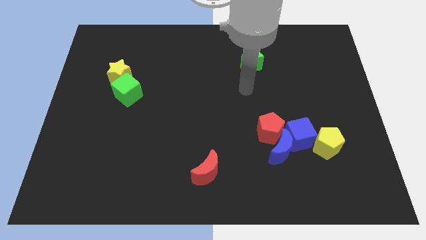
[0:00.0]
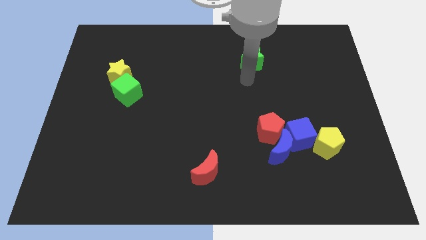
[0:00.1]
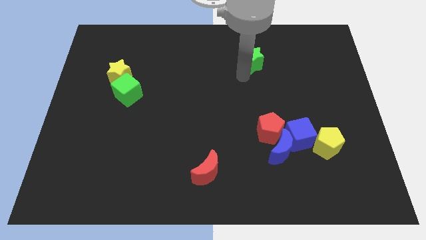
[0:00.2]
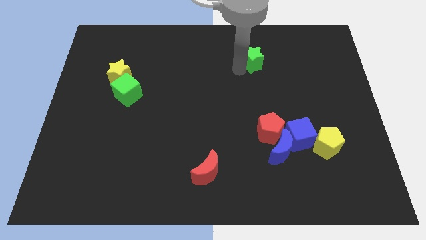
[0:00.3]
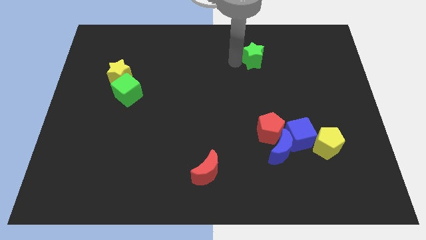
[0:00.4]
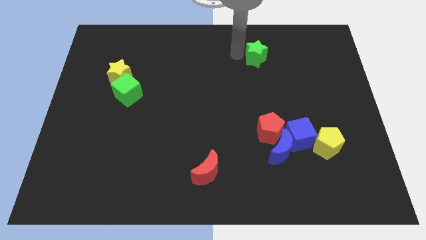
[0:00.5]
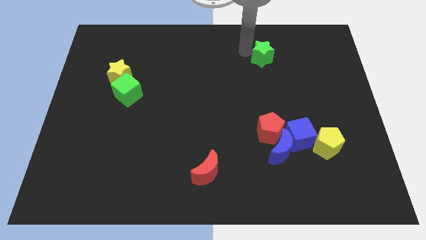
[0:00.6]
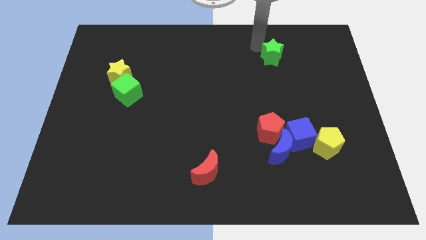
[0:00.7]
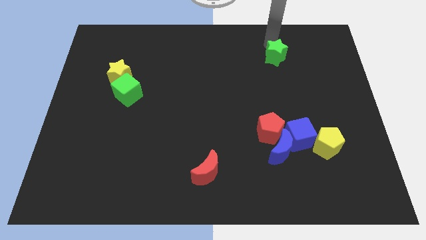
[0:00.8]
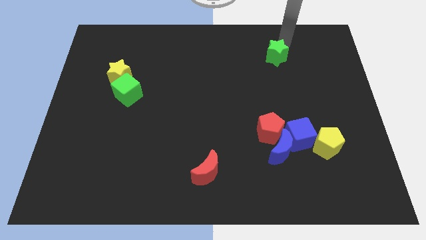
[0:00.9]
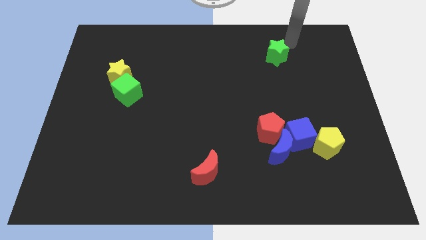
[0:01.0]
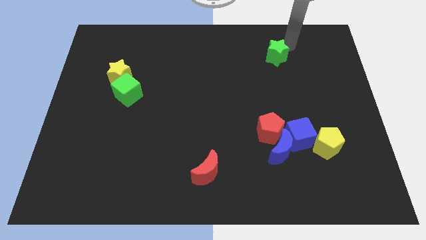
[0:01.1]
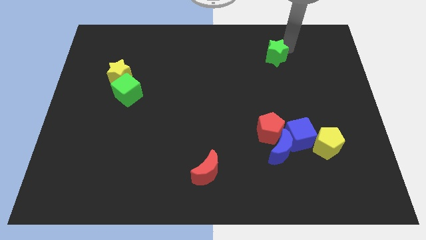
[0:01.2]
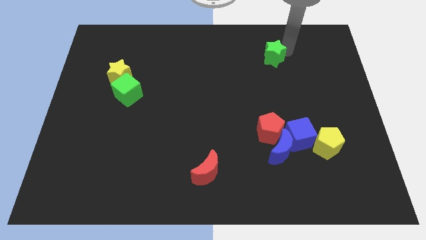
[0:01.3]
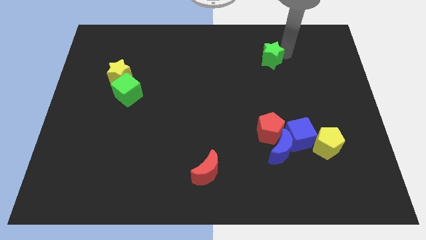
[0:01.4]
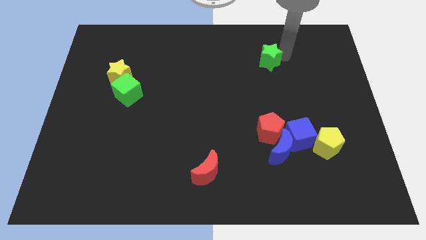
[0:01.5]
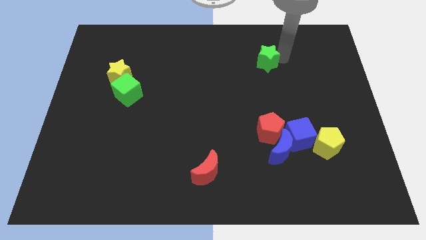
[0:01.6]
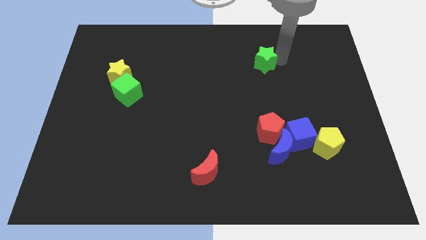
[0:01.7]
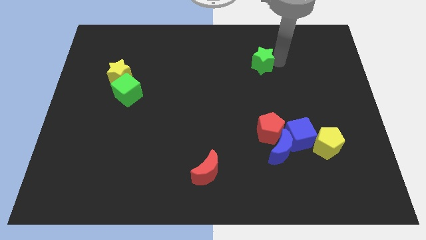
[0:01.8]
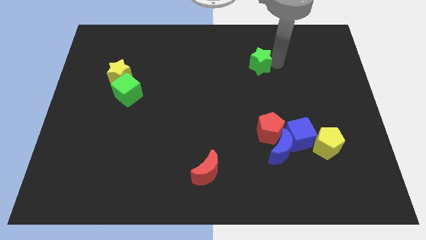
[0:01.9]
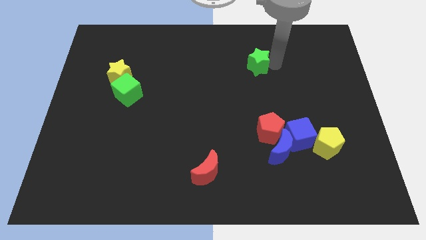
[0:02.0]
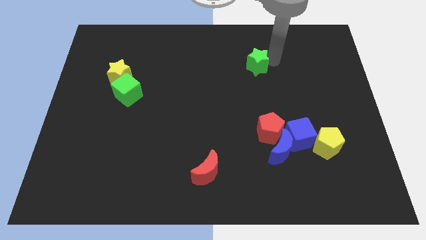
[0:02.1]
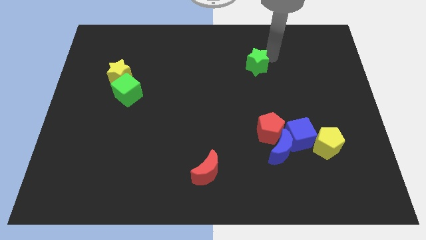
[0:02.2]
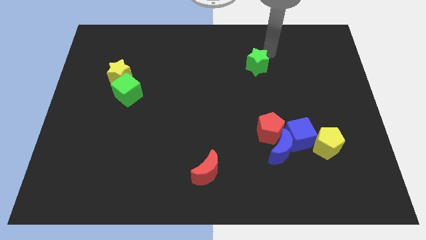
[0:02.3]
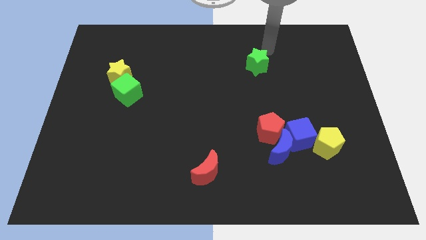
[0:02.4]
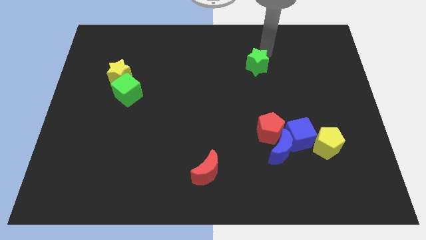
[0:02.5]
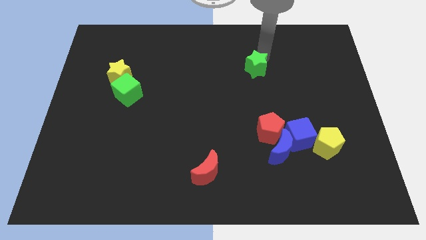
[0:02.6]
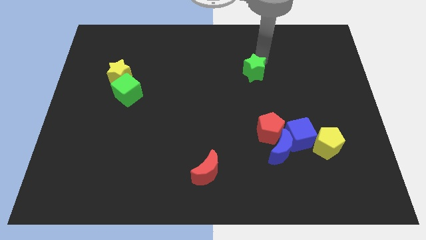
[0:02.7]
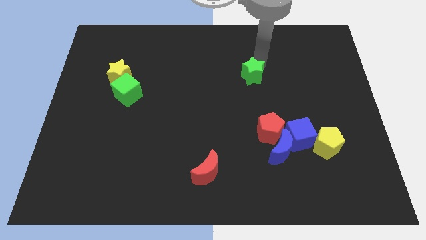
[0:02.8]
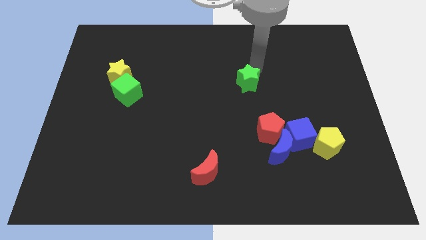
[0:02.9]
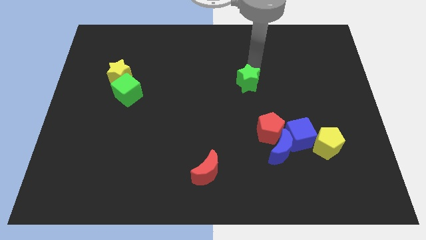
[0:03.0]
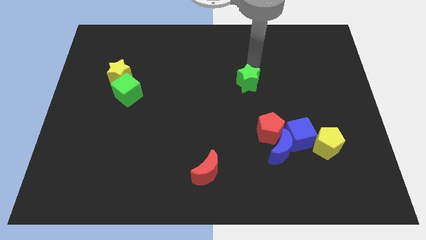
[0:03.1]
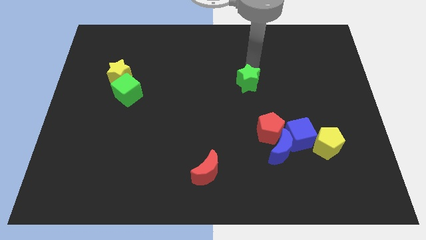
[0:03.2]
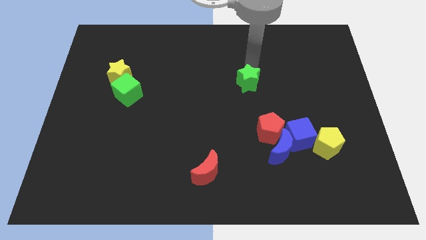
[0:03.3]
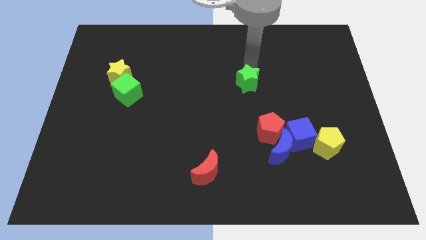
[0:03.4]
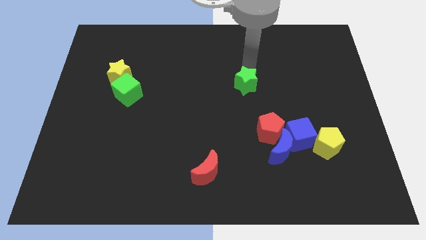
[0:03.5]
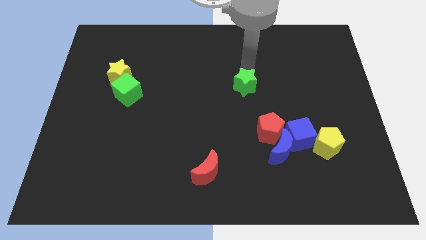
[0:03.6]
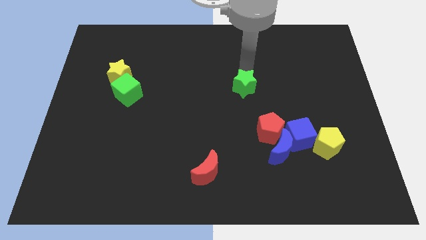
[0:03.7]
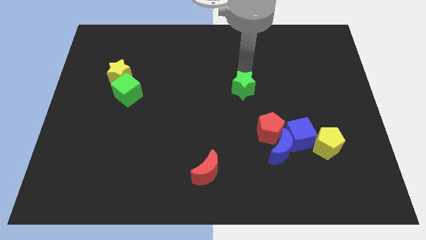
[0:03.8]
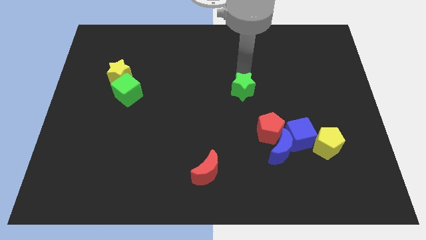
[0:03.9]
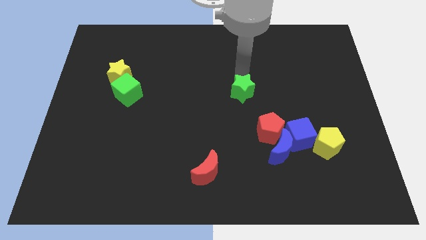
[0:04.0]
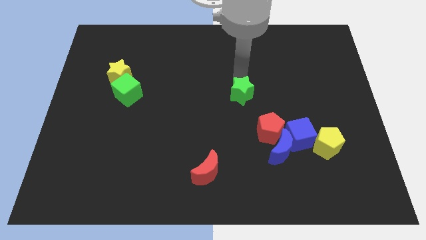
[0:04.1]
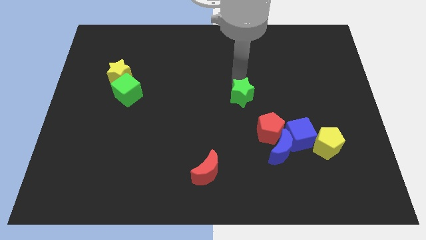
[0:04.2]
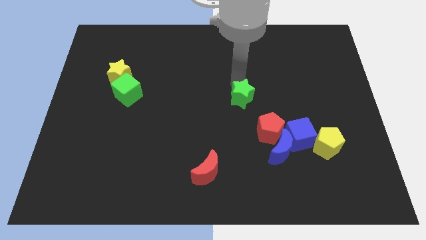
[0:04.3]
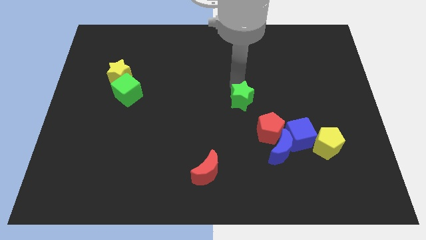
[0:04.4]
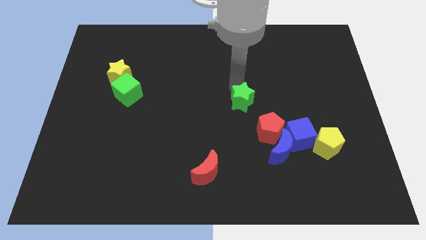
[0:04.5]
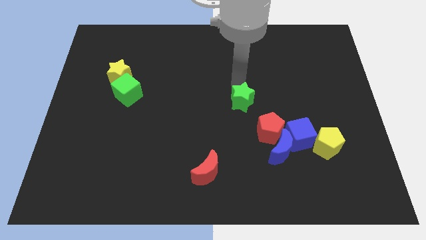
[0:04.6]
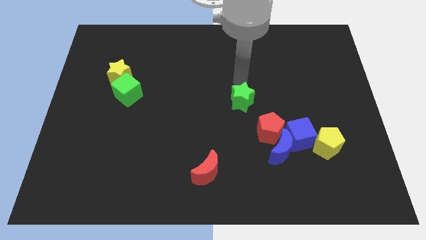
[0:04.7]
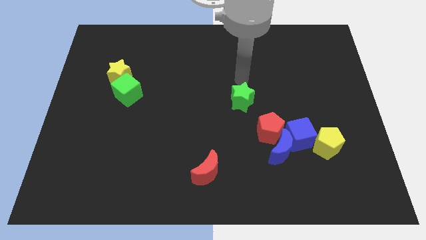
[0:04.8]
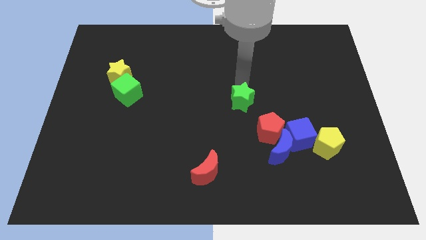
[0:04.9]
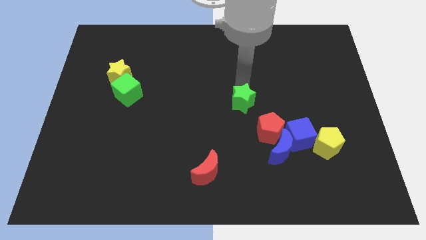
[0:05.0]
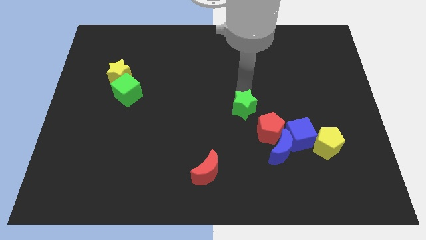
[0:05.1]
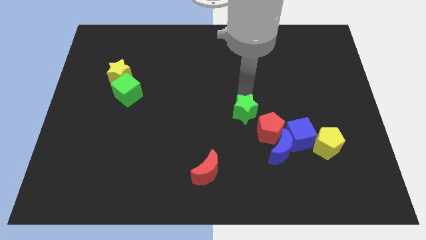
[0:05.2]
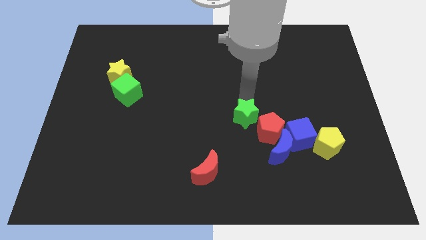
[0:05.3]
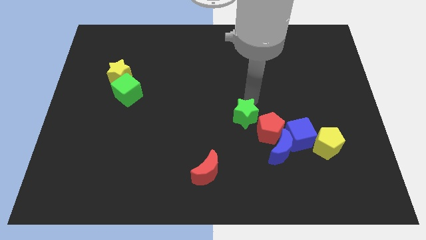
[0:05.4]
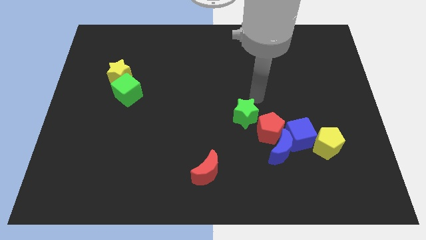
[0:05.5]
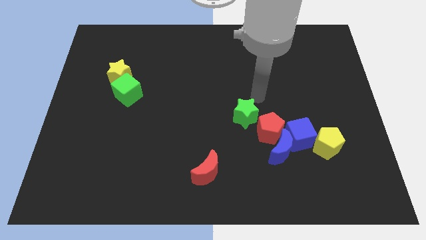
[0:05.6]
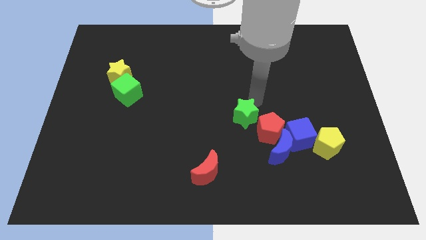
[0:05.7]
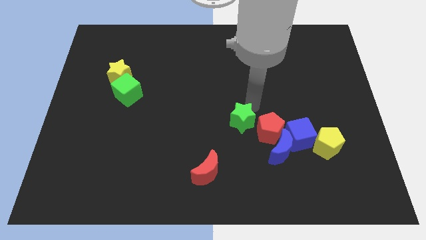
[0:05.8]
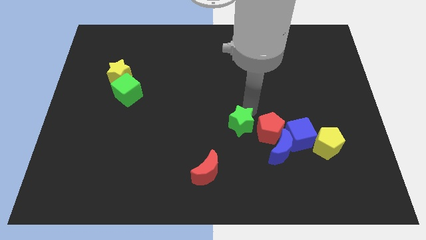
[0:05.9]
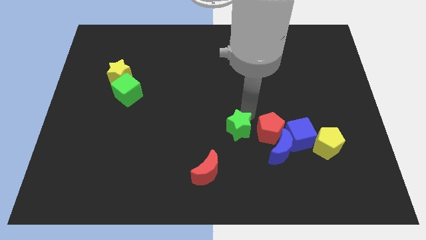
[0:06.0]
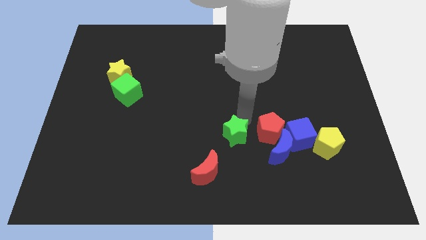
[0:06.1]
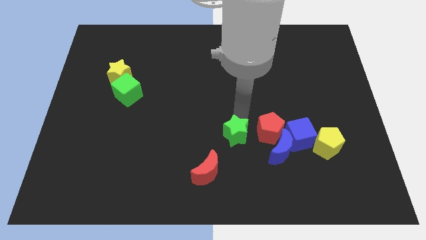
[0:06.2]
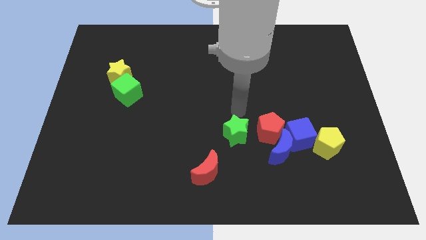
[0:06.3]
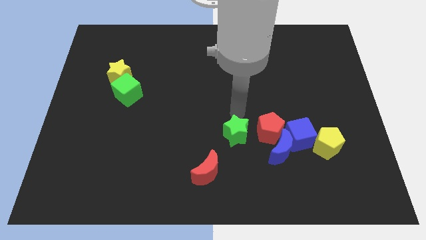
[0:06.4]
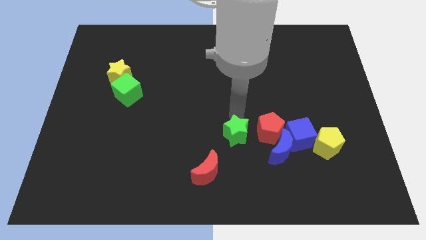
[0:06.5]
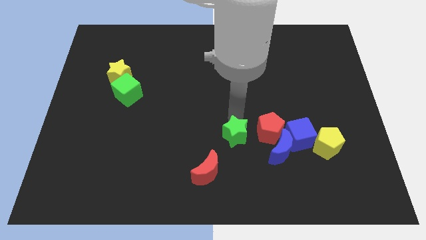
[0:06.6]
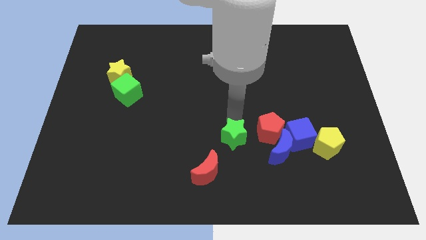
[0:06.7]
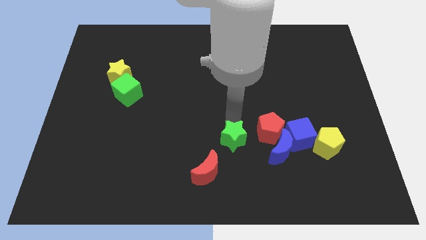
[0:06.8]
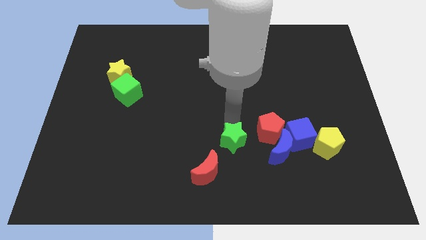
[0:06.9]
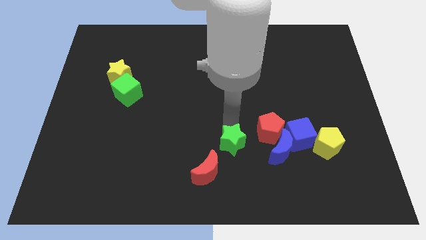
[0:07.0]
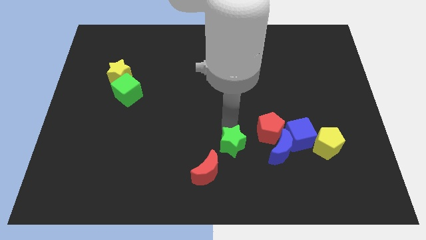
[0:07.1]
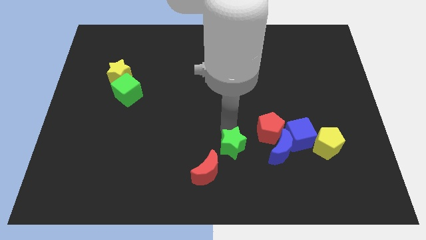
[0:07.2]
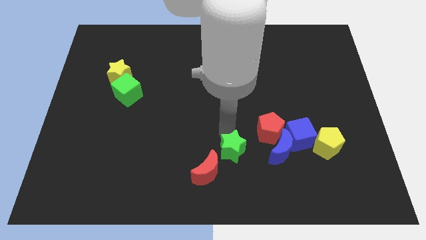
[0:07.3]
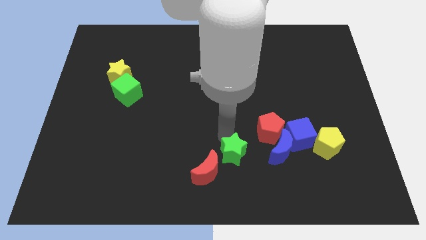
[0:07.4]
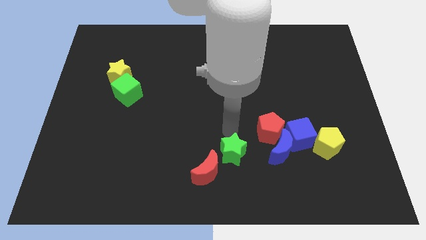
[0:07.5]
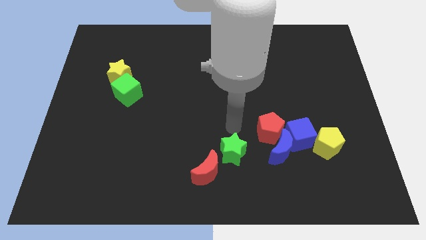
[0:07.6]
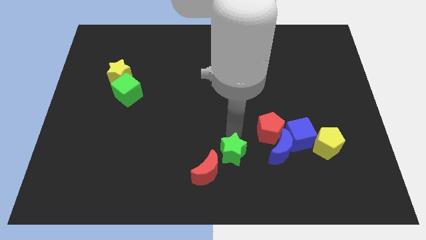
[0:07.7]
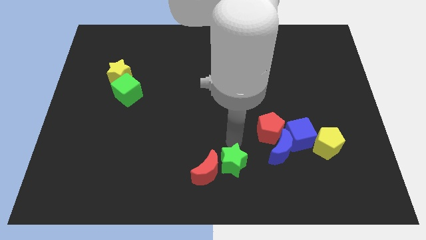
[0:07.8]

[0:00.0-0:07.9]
move the green star to the bottom side
